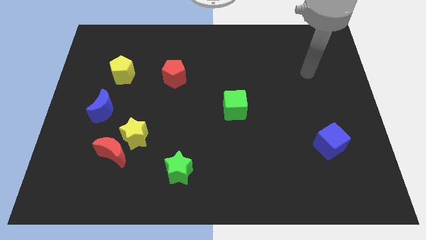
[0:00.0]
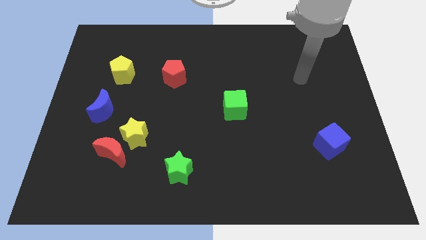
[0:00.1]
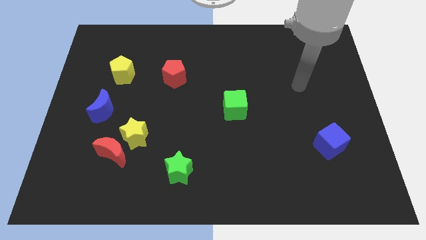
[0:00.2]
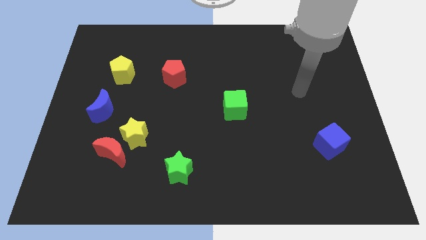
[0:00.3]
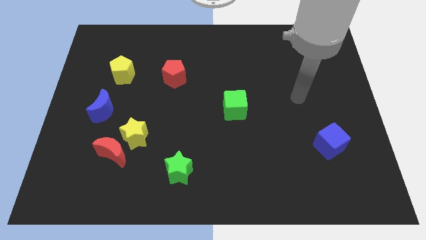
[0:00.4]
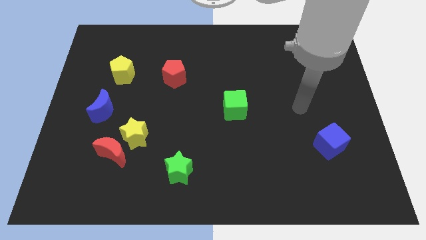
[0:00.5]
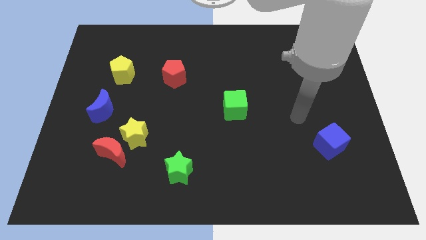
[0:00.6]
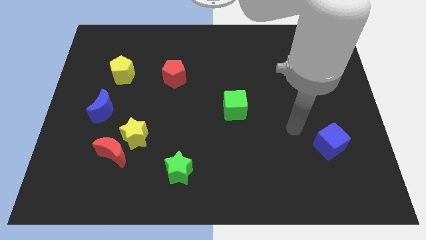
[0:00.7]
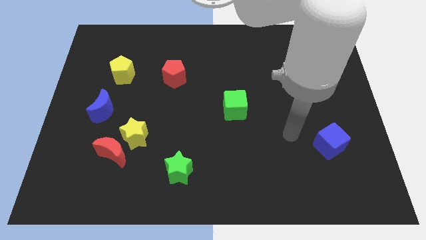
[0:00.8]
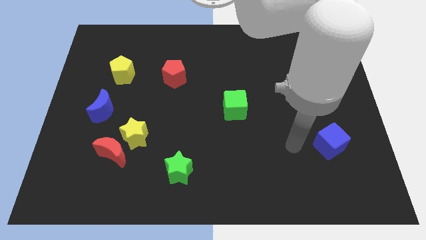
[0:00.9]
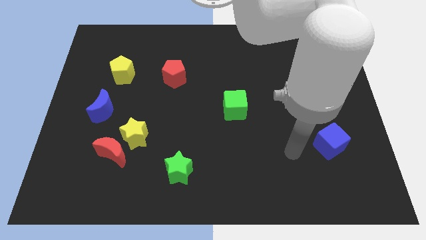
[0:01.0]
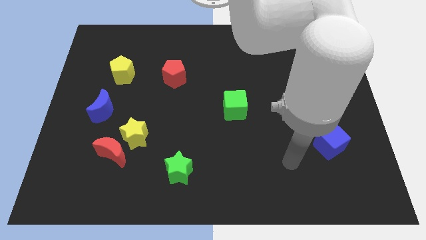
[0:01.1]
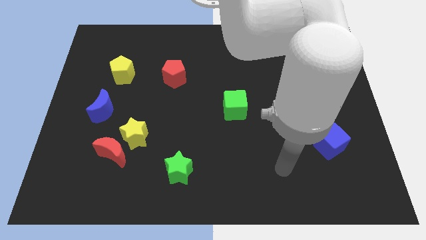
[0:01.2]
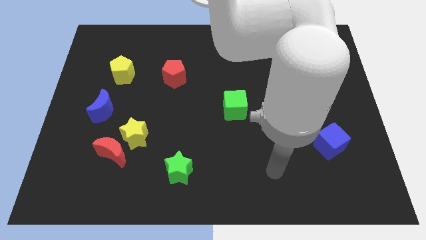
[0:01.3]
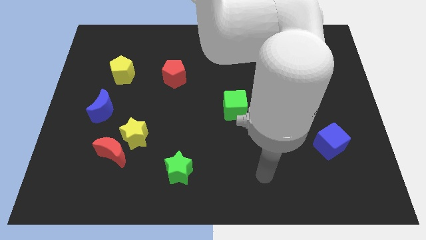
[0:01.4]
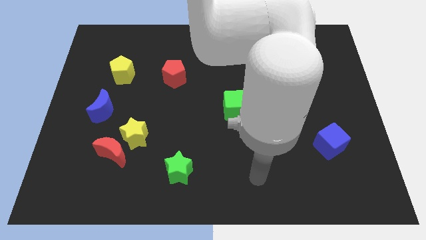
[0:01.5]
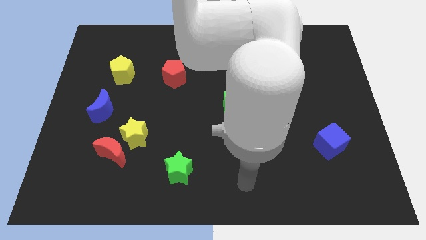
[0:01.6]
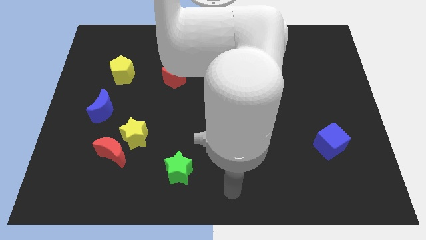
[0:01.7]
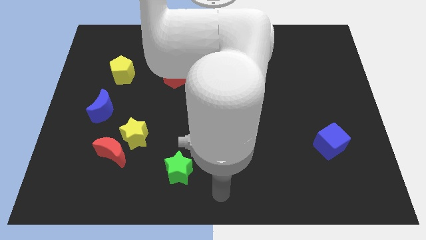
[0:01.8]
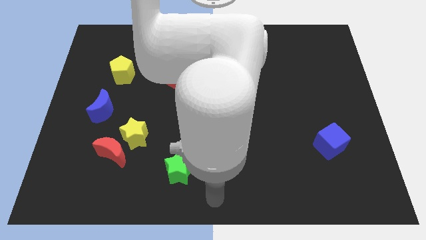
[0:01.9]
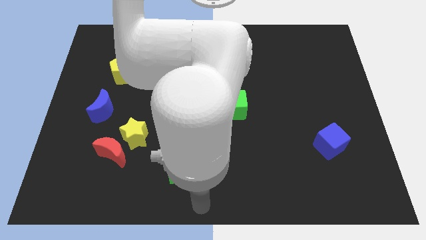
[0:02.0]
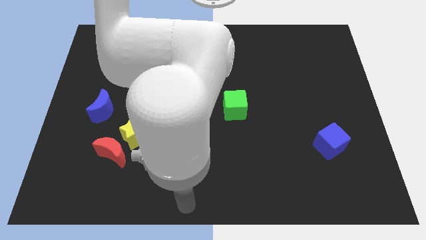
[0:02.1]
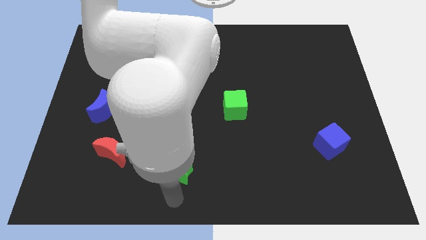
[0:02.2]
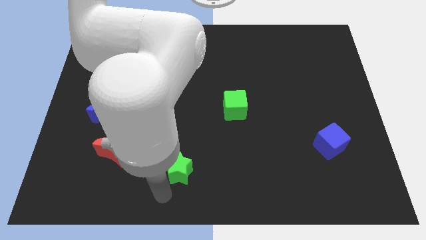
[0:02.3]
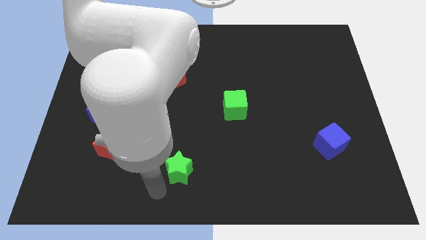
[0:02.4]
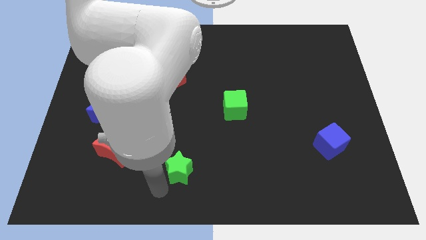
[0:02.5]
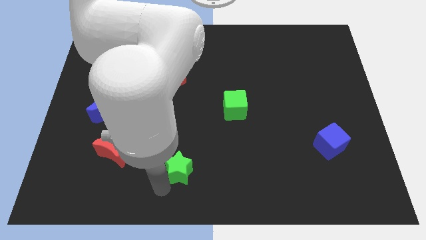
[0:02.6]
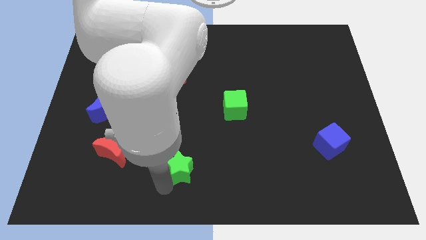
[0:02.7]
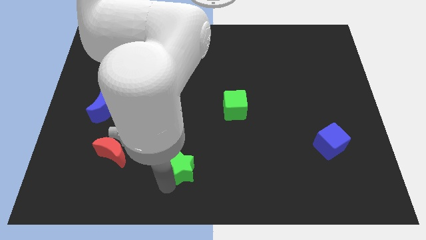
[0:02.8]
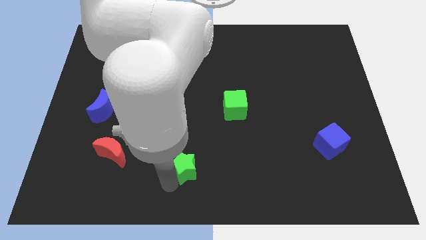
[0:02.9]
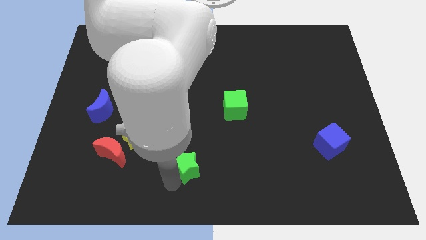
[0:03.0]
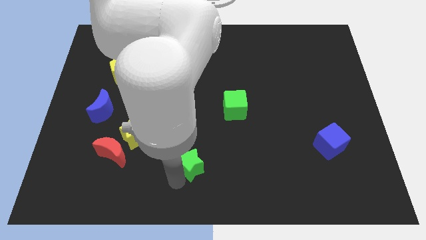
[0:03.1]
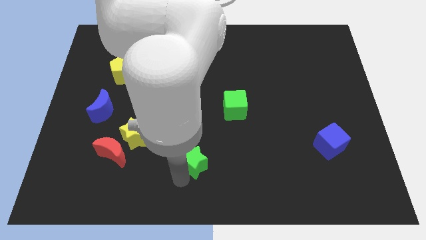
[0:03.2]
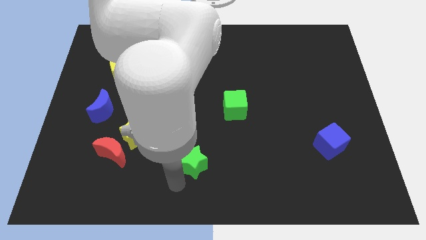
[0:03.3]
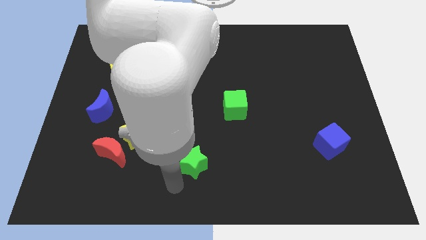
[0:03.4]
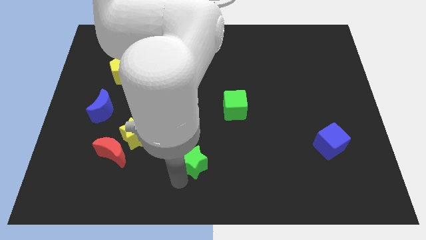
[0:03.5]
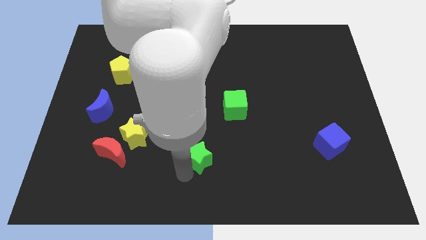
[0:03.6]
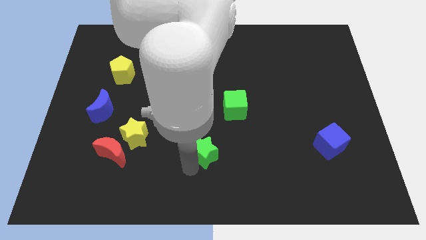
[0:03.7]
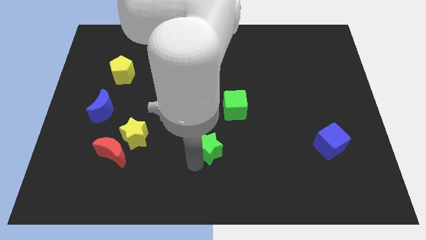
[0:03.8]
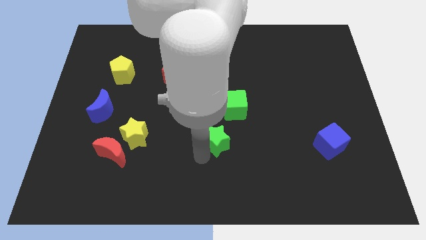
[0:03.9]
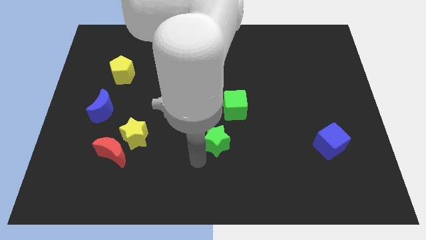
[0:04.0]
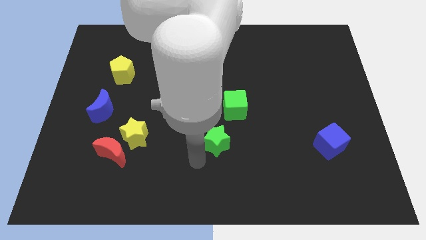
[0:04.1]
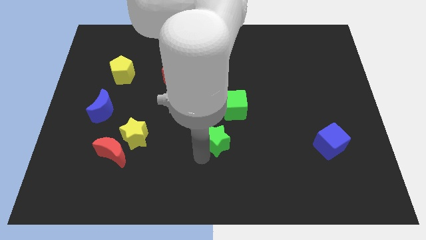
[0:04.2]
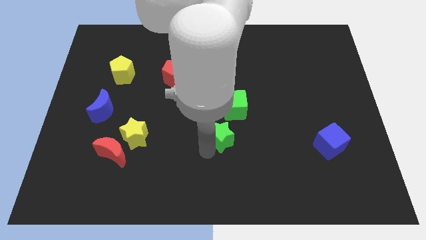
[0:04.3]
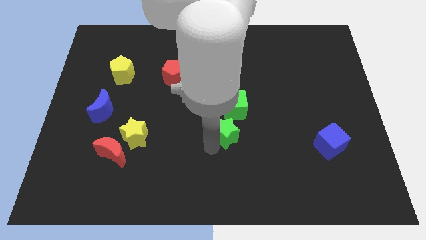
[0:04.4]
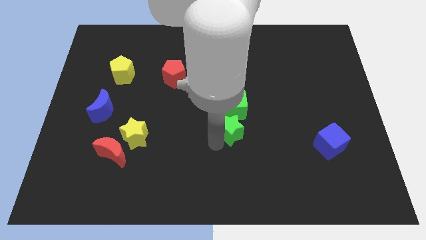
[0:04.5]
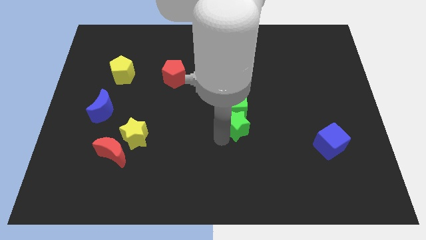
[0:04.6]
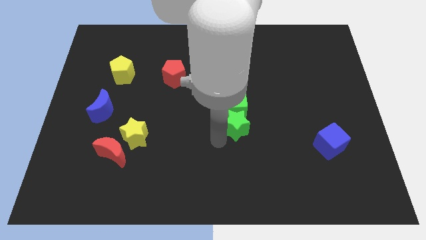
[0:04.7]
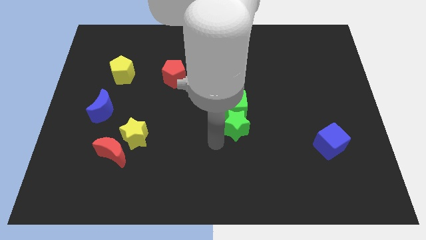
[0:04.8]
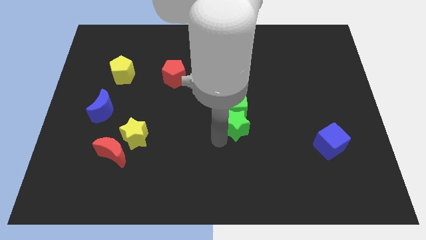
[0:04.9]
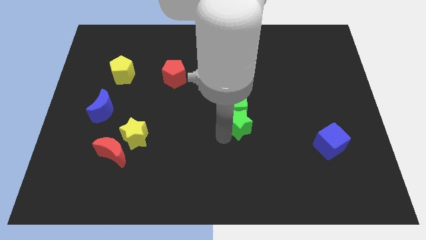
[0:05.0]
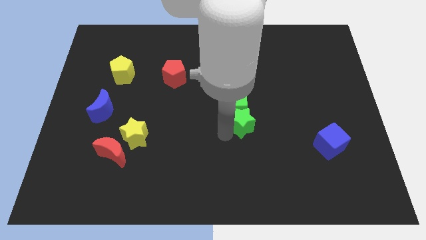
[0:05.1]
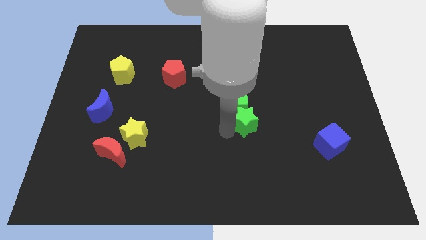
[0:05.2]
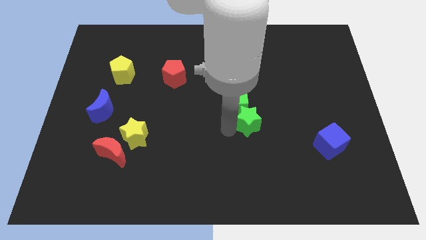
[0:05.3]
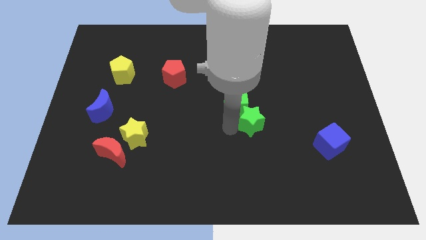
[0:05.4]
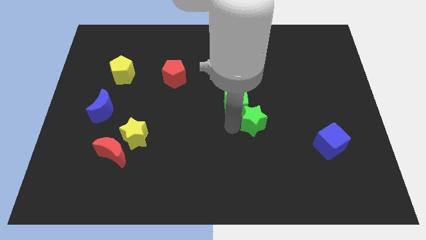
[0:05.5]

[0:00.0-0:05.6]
push the green star diagonally upwards and right

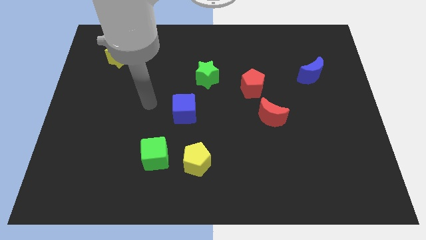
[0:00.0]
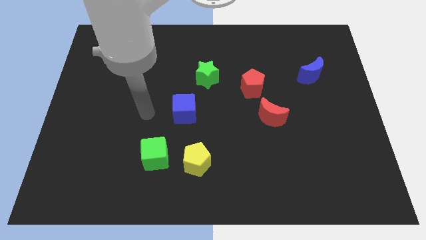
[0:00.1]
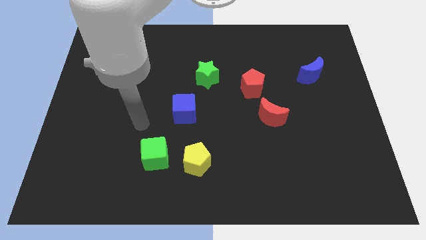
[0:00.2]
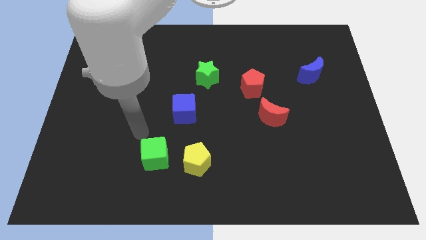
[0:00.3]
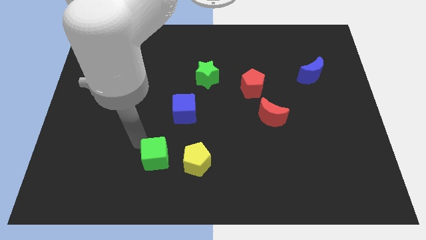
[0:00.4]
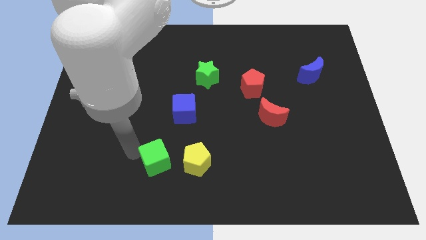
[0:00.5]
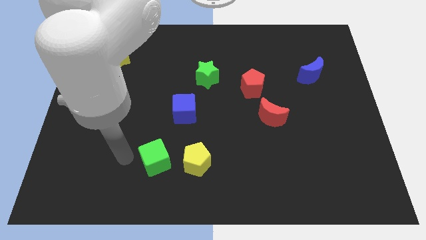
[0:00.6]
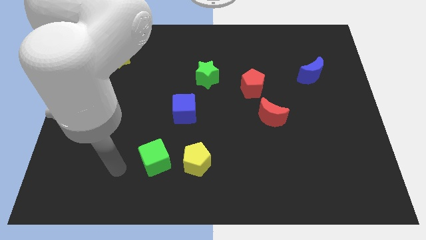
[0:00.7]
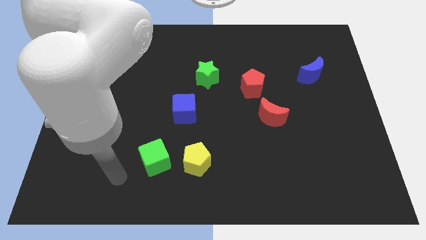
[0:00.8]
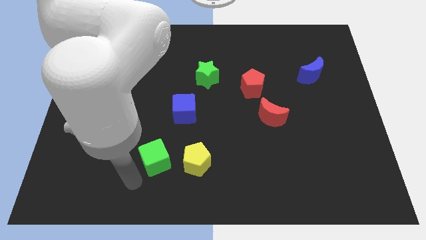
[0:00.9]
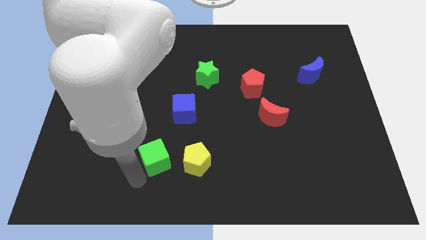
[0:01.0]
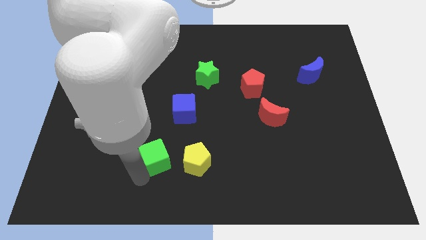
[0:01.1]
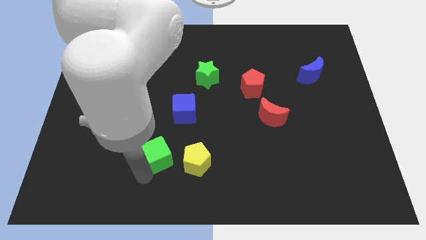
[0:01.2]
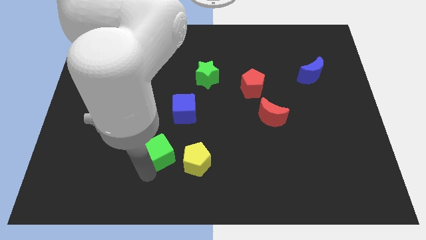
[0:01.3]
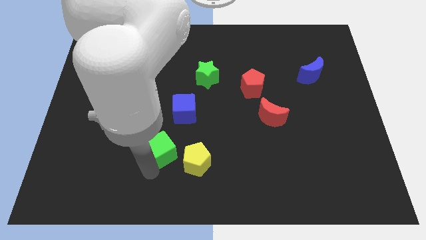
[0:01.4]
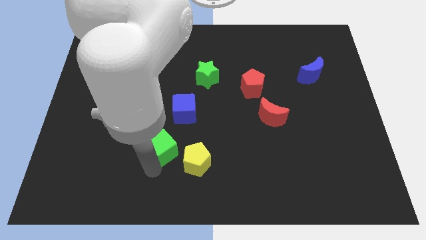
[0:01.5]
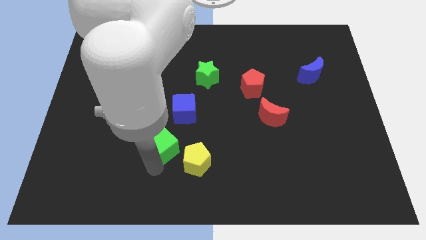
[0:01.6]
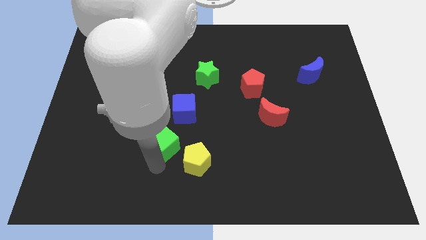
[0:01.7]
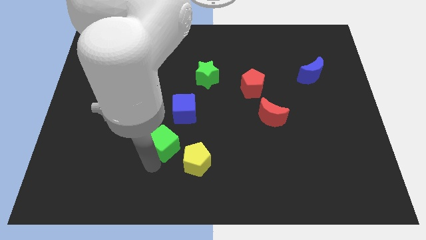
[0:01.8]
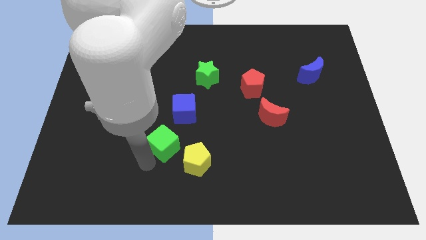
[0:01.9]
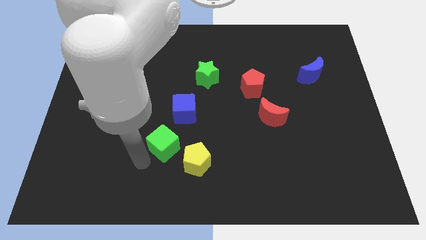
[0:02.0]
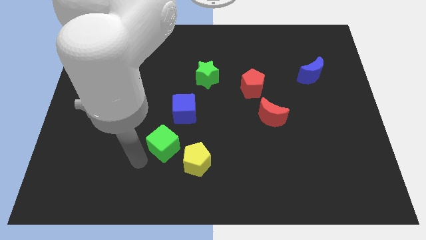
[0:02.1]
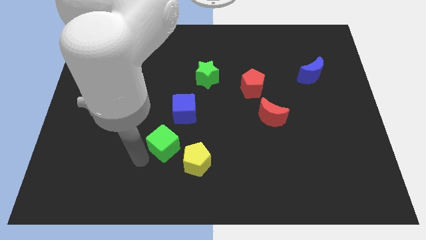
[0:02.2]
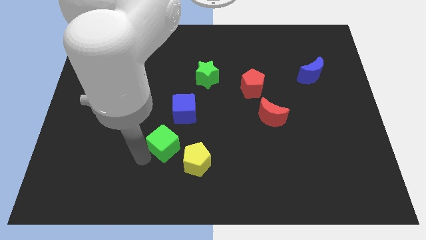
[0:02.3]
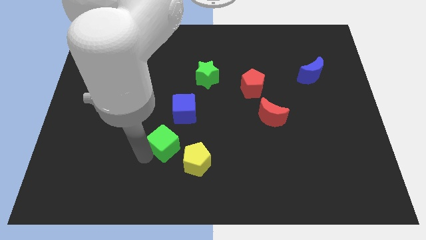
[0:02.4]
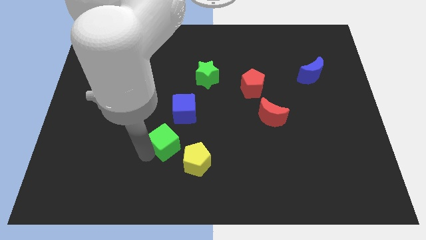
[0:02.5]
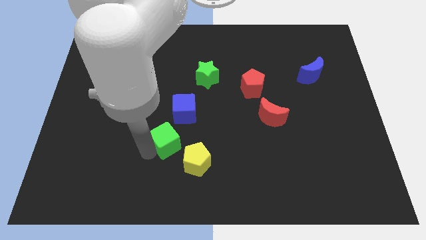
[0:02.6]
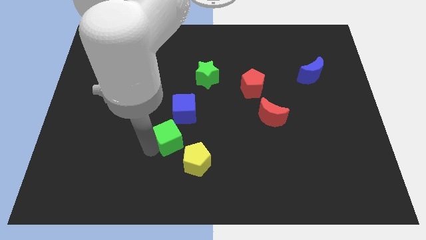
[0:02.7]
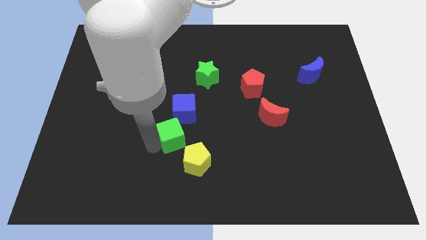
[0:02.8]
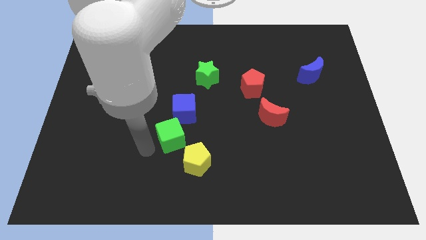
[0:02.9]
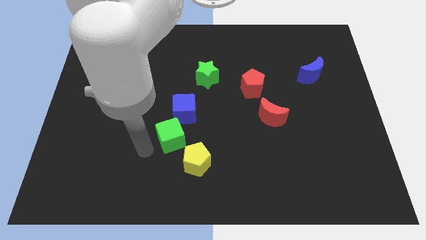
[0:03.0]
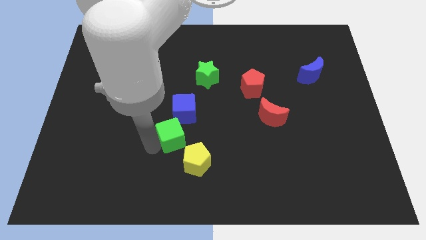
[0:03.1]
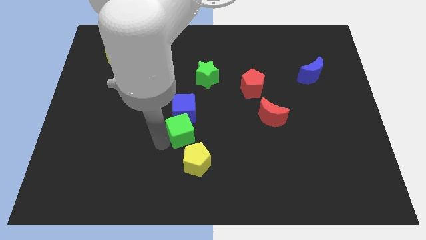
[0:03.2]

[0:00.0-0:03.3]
slide the green cube up and then to the right a little
